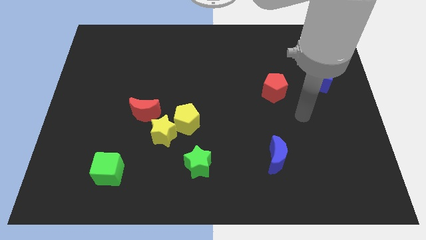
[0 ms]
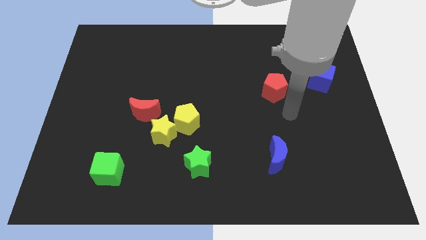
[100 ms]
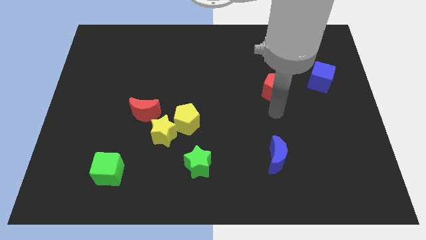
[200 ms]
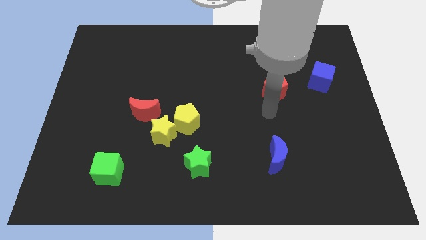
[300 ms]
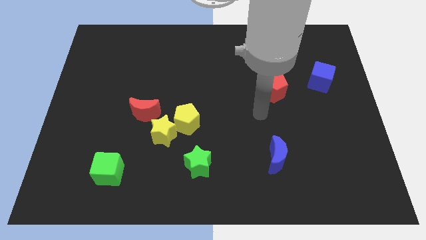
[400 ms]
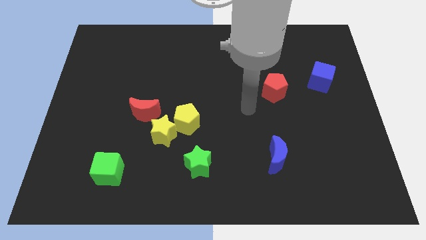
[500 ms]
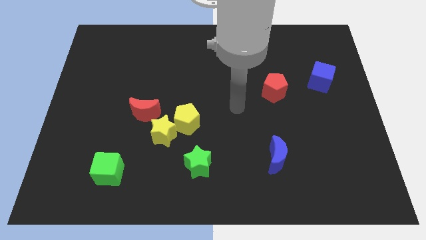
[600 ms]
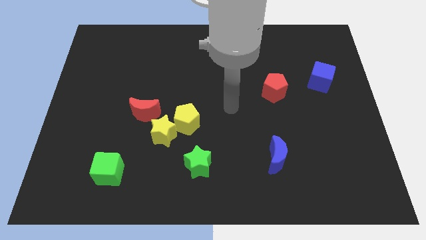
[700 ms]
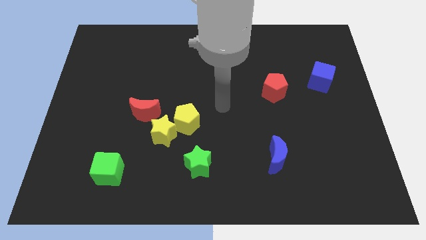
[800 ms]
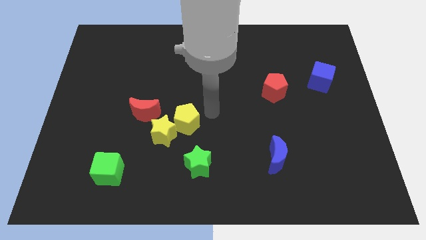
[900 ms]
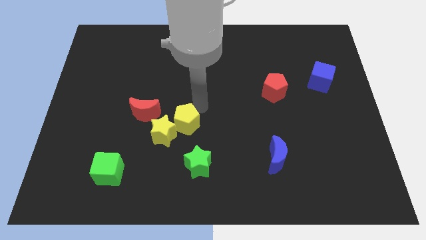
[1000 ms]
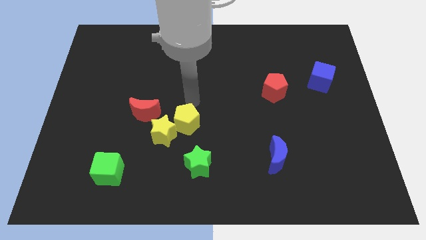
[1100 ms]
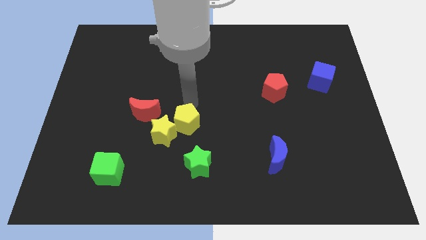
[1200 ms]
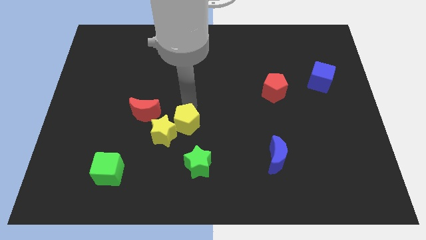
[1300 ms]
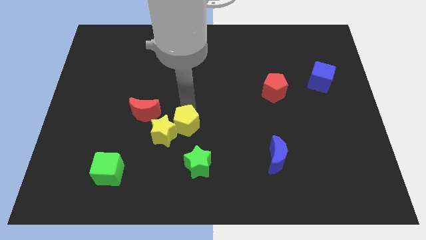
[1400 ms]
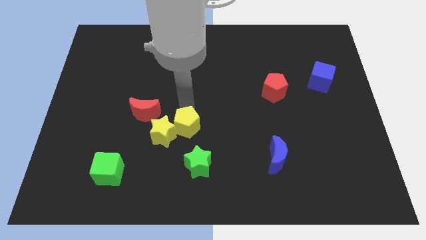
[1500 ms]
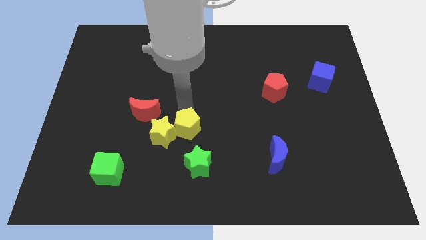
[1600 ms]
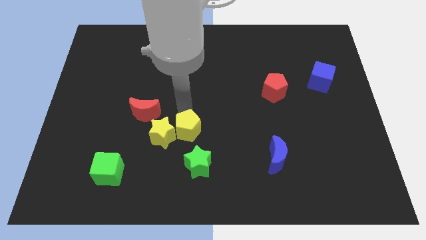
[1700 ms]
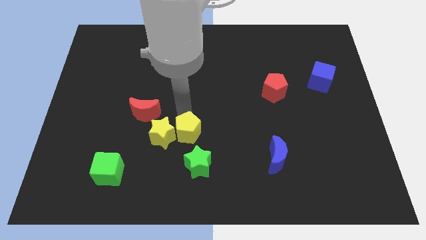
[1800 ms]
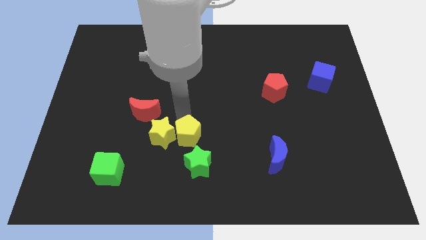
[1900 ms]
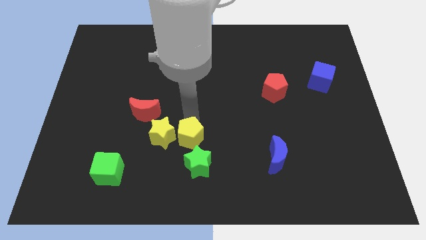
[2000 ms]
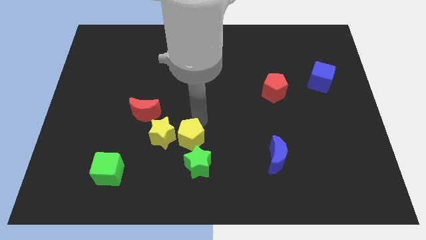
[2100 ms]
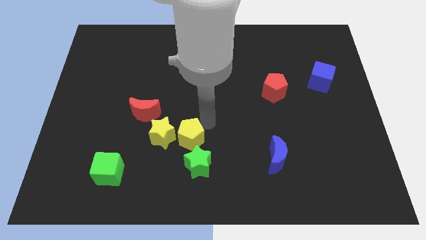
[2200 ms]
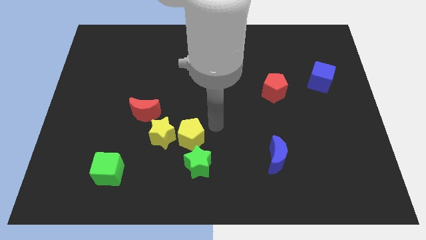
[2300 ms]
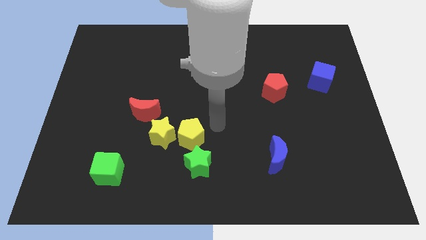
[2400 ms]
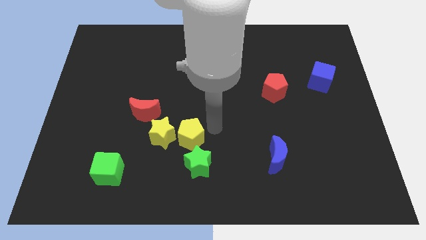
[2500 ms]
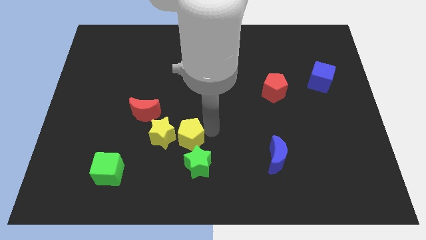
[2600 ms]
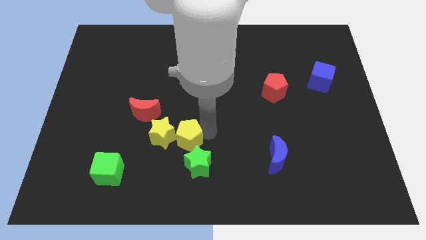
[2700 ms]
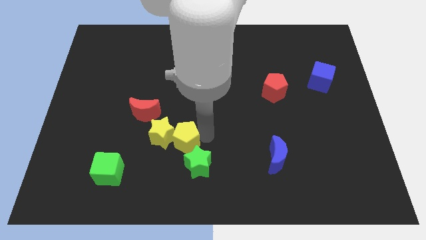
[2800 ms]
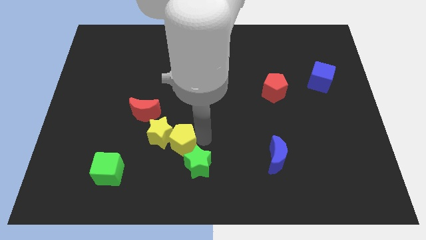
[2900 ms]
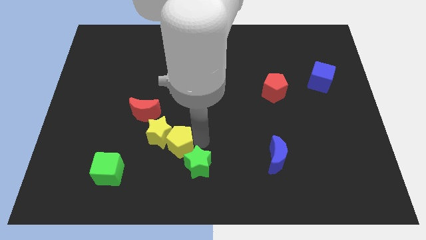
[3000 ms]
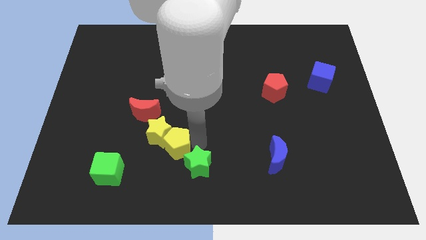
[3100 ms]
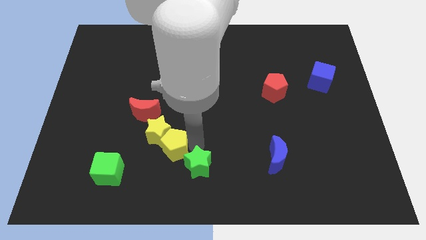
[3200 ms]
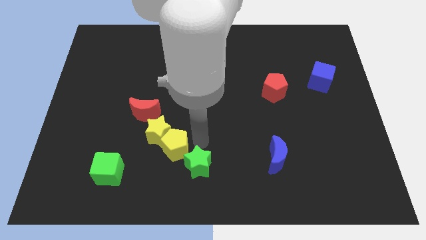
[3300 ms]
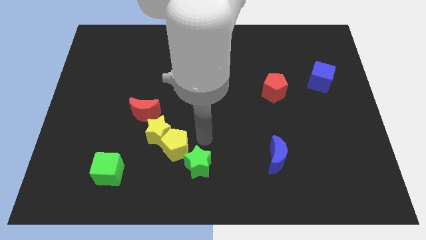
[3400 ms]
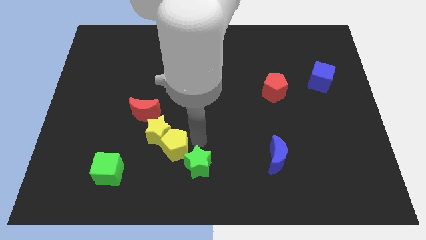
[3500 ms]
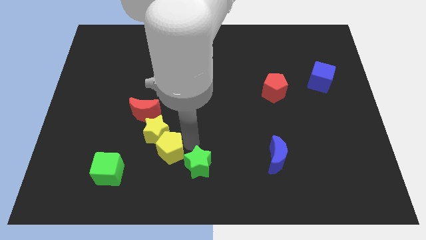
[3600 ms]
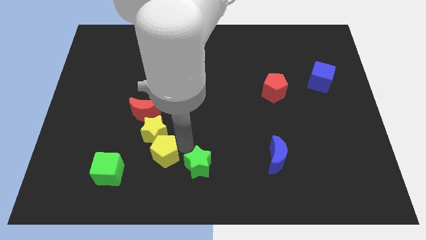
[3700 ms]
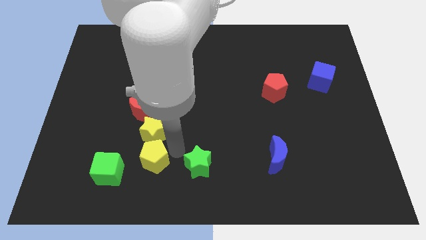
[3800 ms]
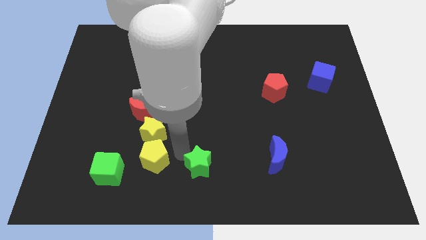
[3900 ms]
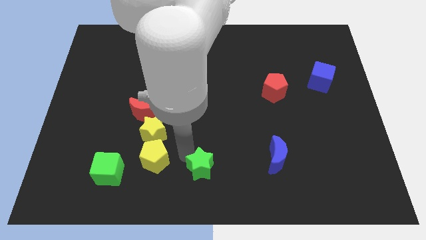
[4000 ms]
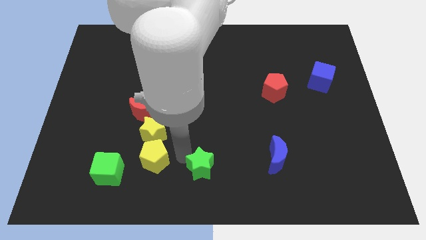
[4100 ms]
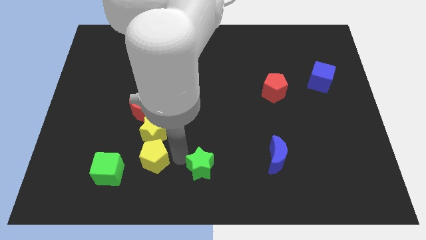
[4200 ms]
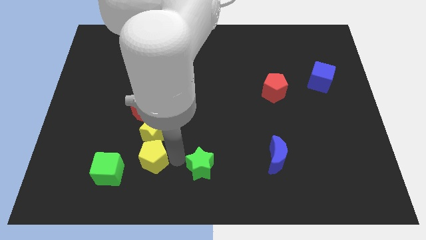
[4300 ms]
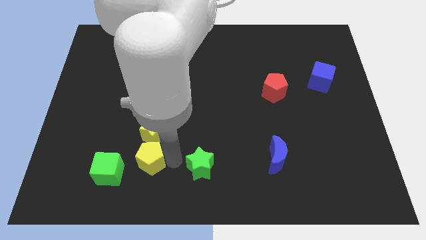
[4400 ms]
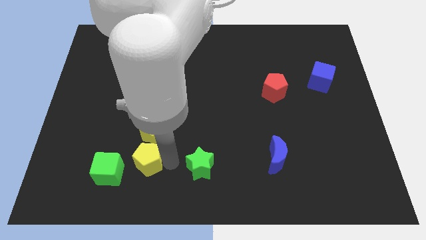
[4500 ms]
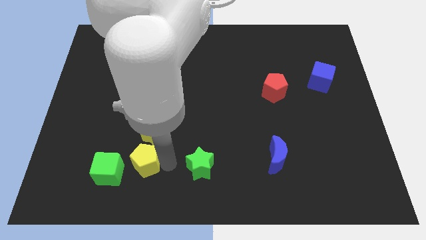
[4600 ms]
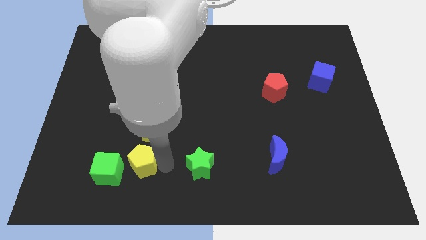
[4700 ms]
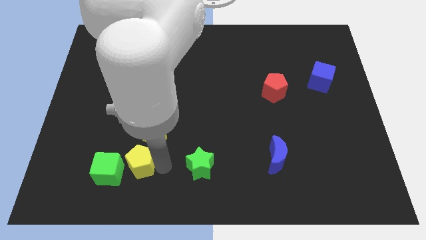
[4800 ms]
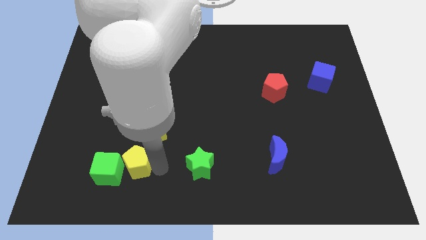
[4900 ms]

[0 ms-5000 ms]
put the yellow pentagon to the green cube

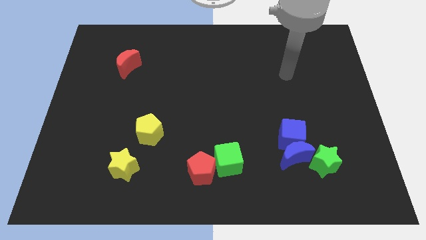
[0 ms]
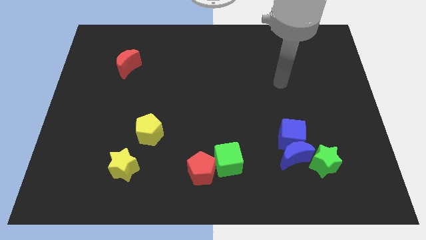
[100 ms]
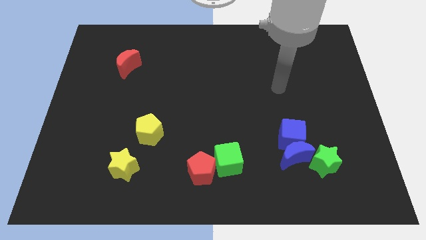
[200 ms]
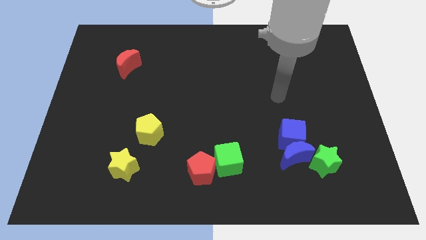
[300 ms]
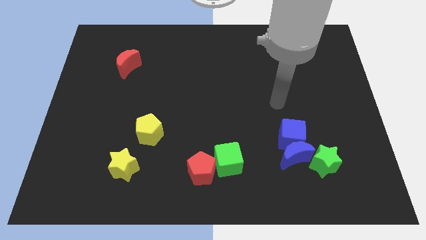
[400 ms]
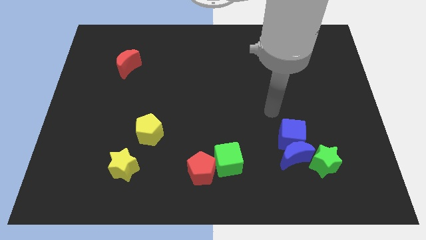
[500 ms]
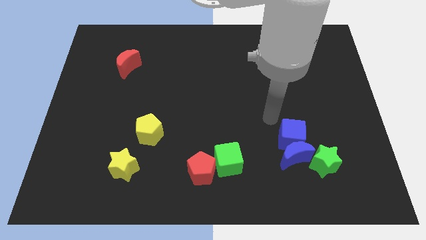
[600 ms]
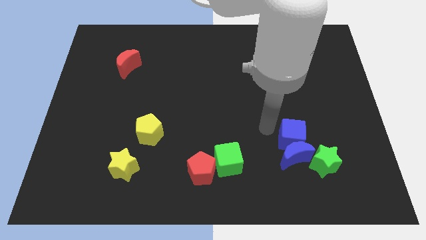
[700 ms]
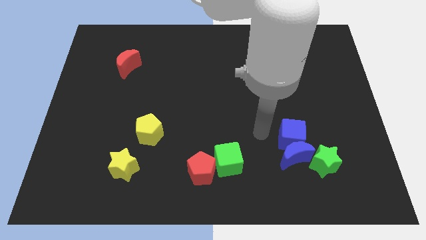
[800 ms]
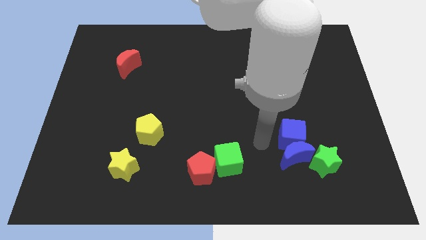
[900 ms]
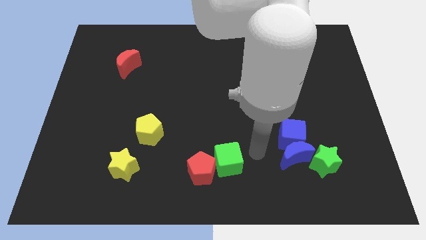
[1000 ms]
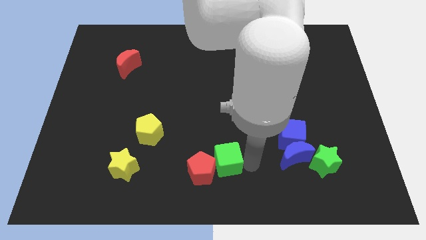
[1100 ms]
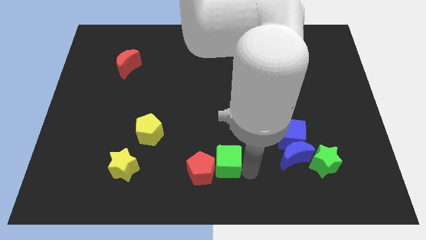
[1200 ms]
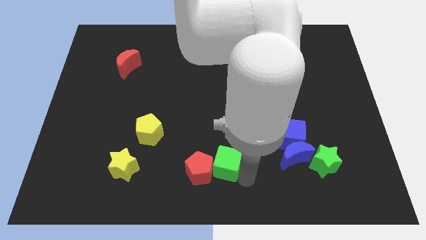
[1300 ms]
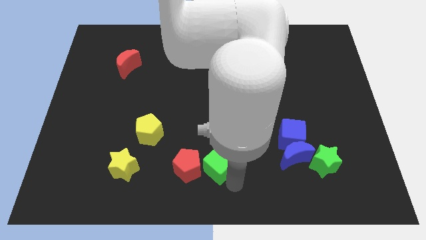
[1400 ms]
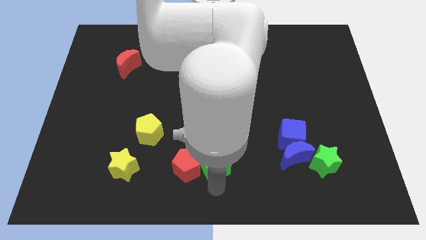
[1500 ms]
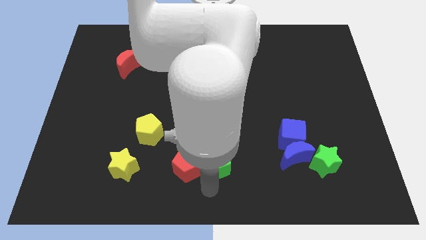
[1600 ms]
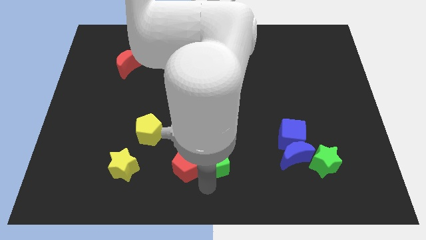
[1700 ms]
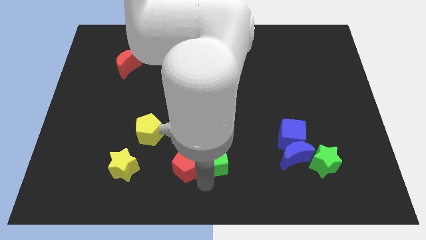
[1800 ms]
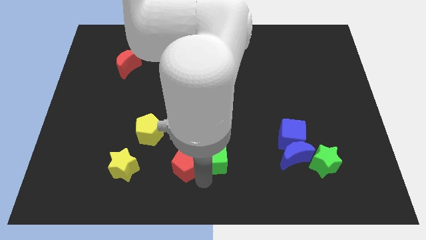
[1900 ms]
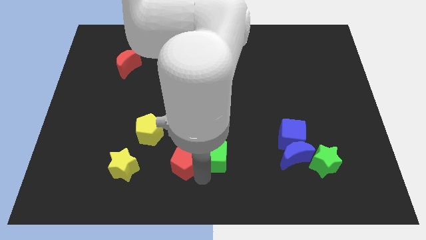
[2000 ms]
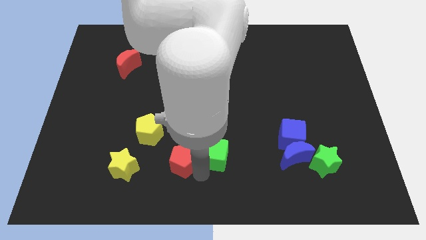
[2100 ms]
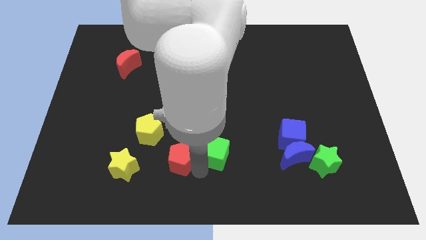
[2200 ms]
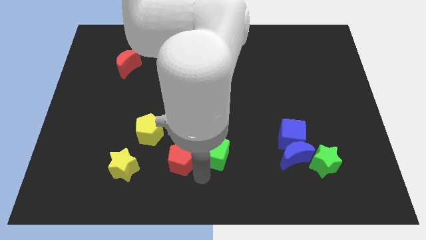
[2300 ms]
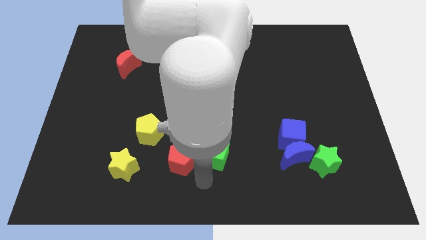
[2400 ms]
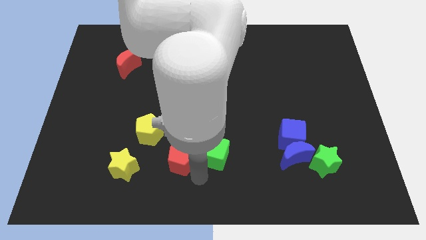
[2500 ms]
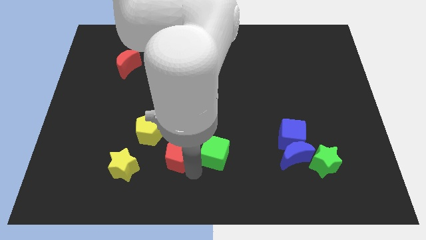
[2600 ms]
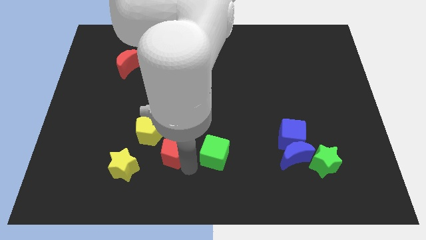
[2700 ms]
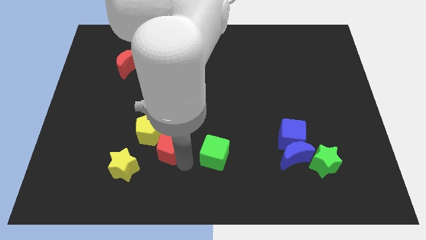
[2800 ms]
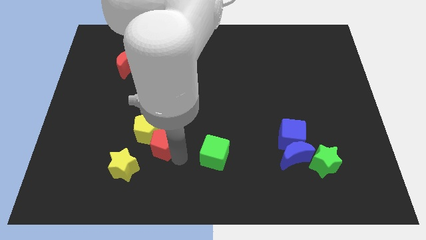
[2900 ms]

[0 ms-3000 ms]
push the red pentagon next to the yellow pentagon
